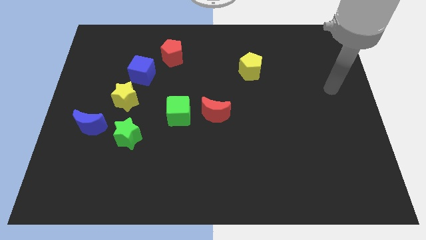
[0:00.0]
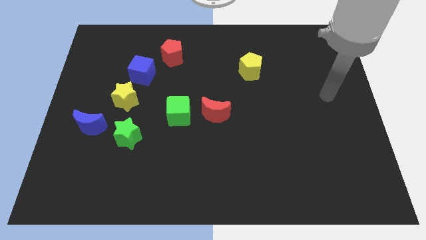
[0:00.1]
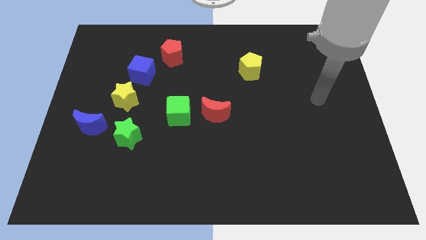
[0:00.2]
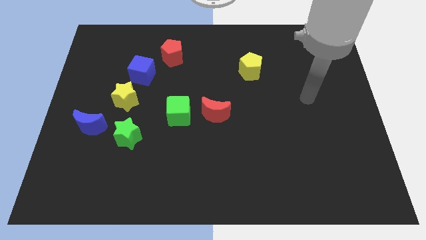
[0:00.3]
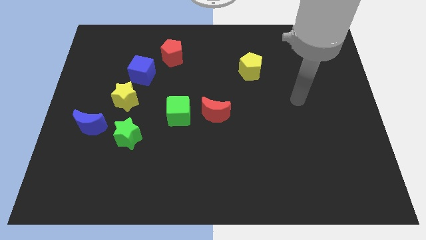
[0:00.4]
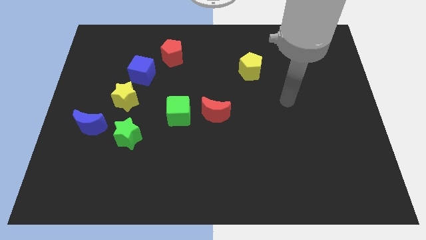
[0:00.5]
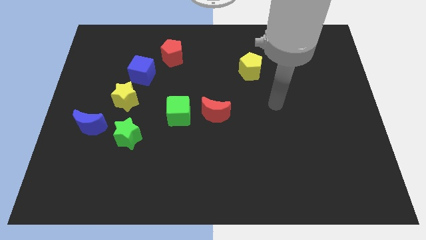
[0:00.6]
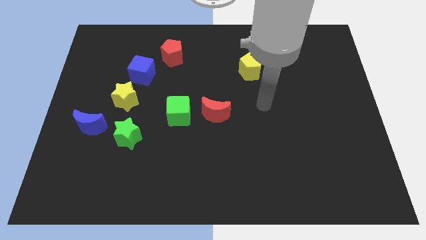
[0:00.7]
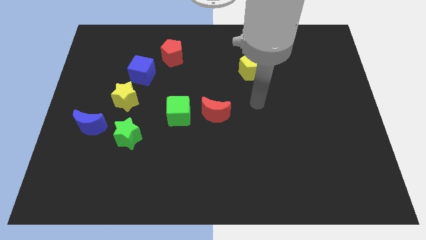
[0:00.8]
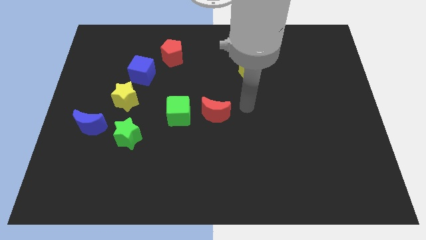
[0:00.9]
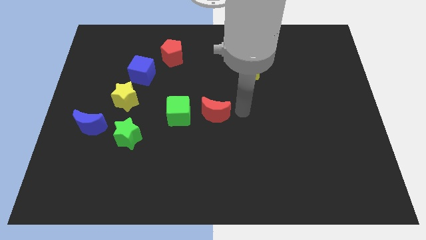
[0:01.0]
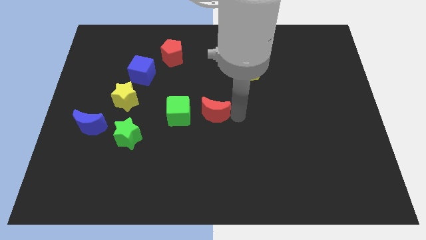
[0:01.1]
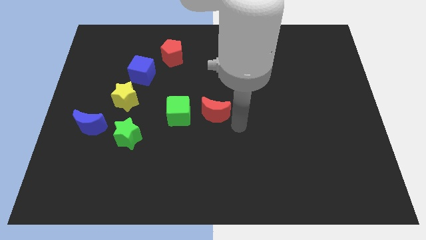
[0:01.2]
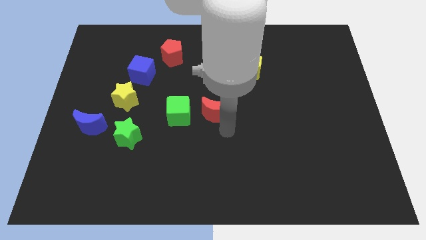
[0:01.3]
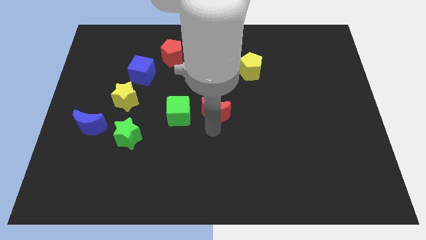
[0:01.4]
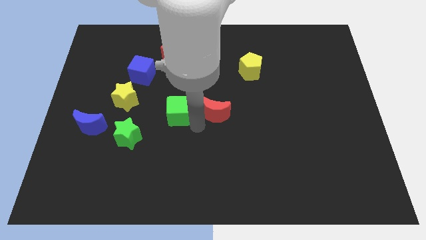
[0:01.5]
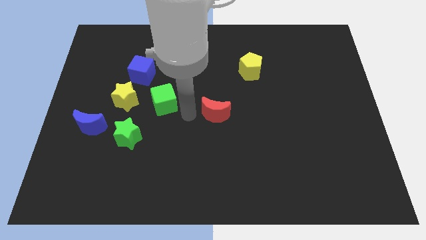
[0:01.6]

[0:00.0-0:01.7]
separate the red moon from the green cube

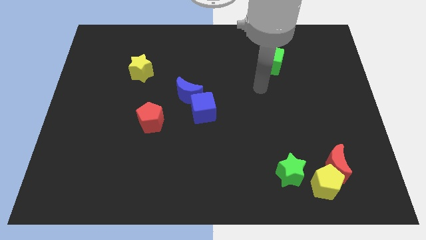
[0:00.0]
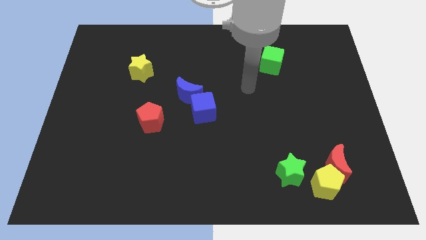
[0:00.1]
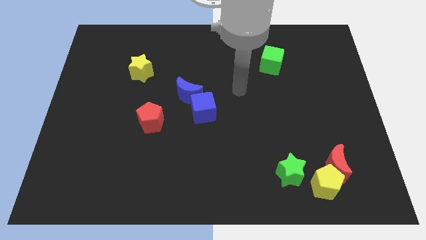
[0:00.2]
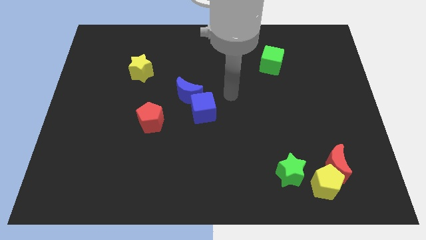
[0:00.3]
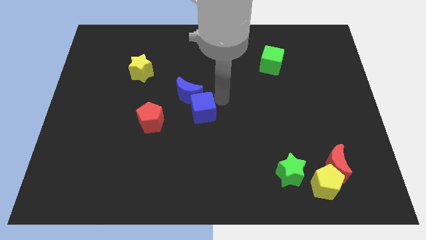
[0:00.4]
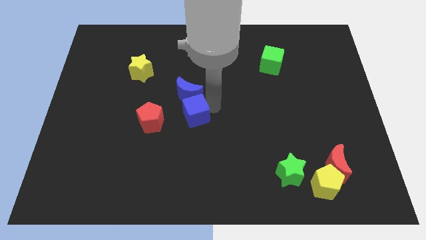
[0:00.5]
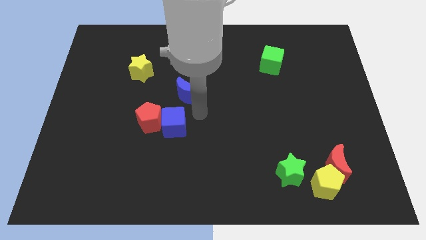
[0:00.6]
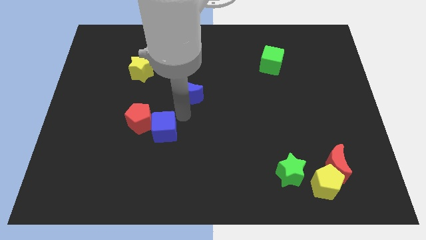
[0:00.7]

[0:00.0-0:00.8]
pull the blue moon apart from the blue cube

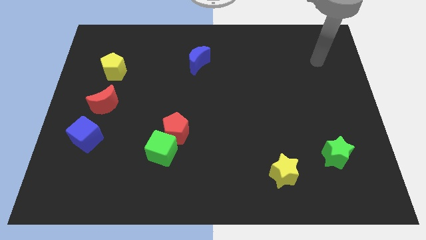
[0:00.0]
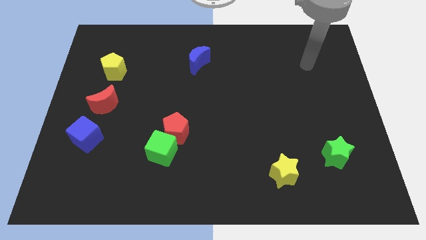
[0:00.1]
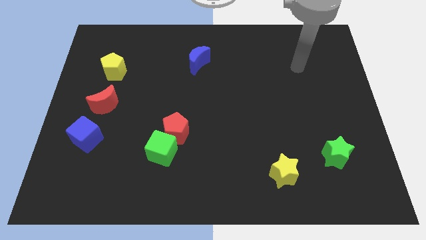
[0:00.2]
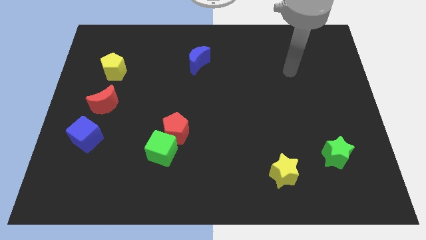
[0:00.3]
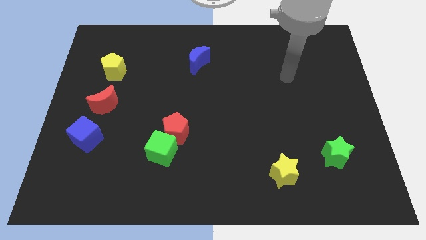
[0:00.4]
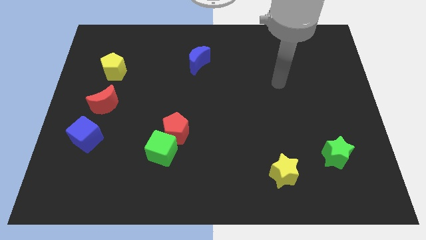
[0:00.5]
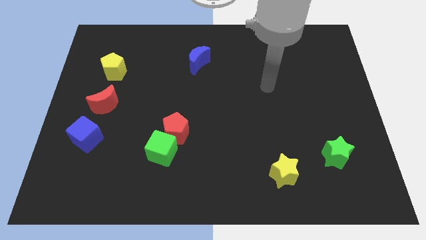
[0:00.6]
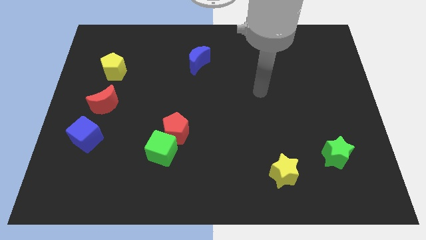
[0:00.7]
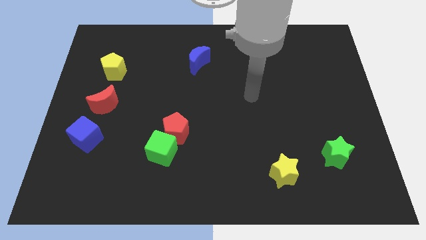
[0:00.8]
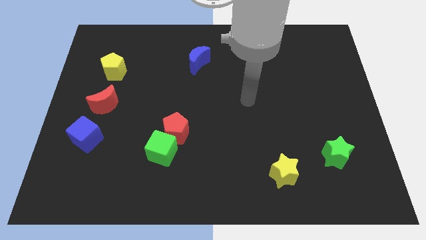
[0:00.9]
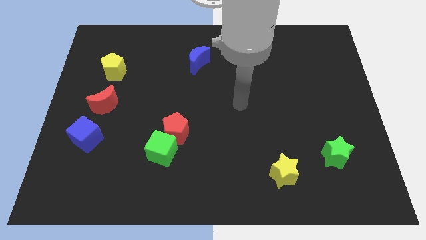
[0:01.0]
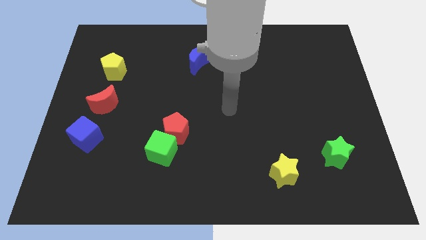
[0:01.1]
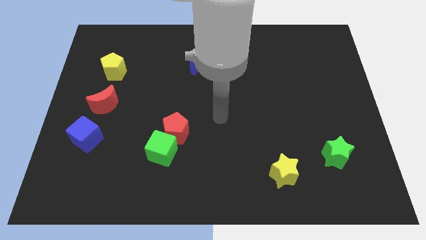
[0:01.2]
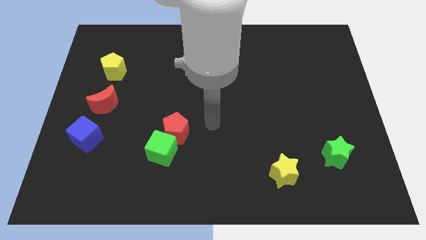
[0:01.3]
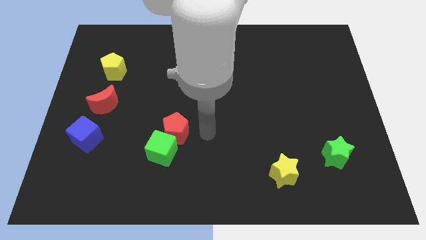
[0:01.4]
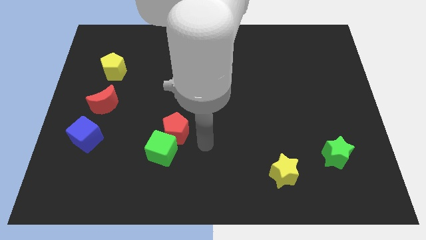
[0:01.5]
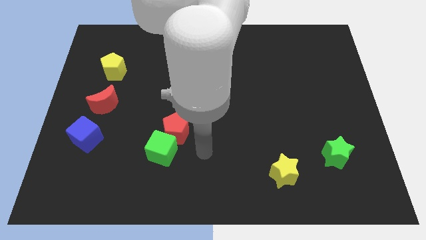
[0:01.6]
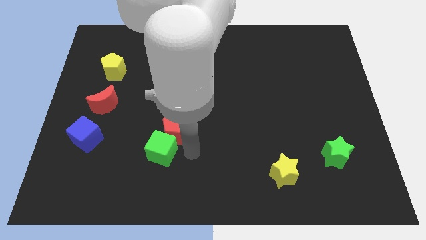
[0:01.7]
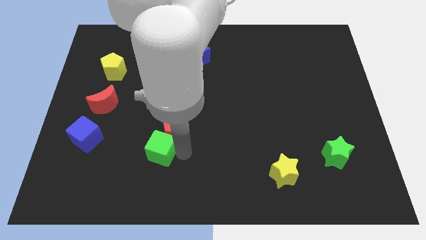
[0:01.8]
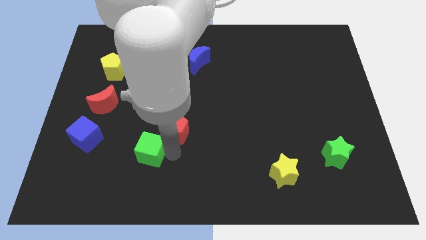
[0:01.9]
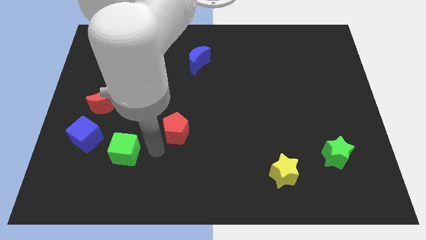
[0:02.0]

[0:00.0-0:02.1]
move the red pentagon away from the green cube

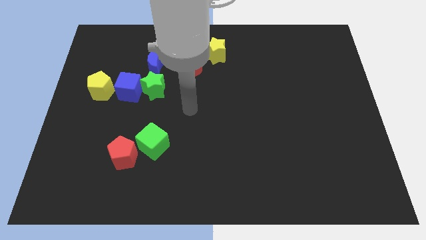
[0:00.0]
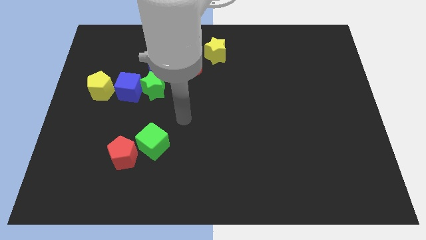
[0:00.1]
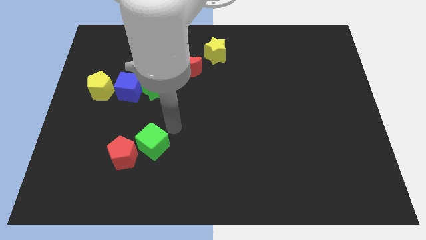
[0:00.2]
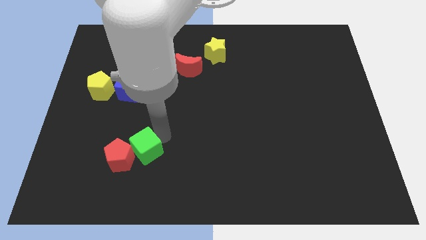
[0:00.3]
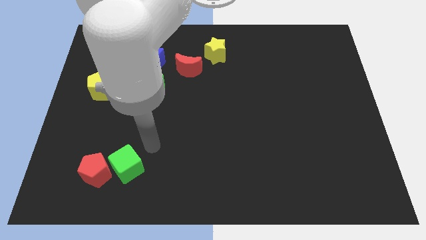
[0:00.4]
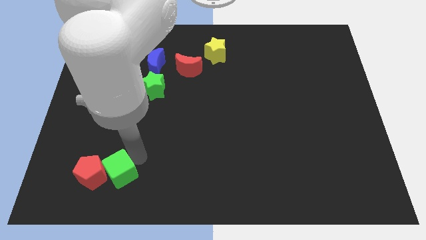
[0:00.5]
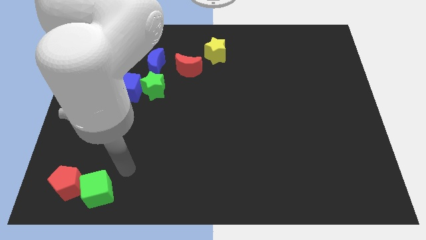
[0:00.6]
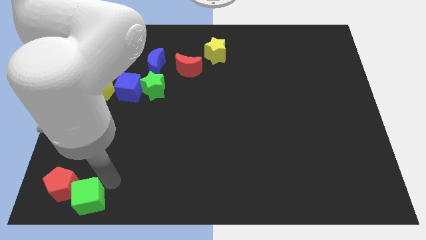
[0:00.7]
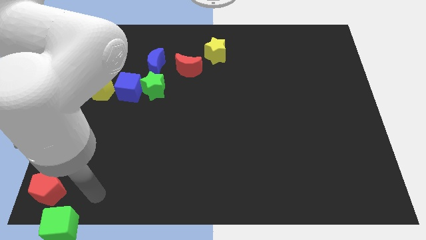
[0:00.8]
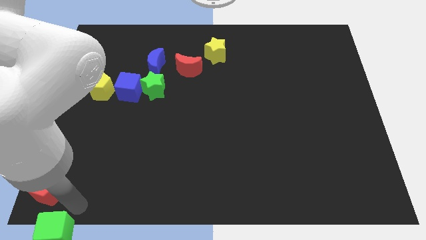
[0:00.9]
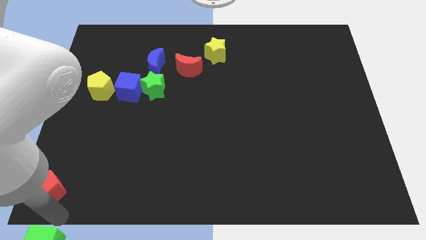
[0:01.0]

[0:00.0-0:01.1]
separate the red pentagon from the green cube

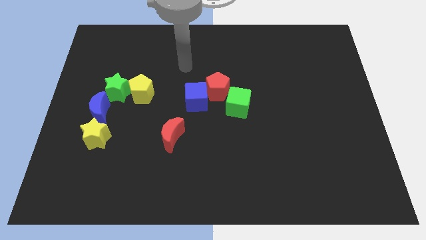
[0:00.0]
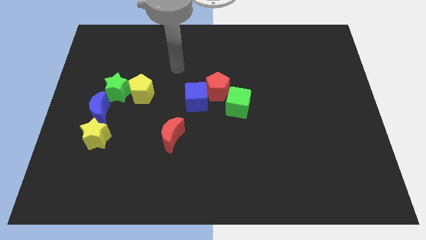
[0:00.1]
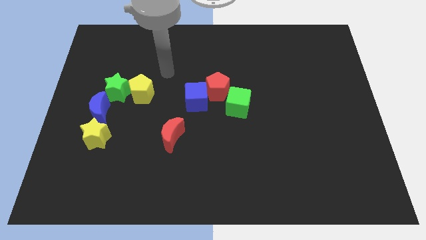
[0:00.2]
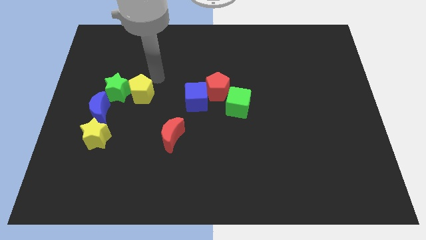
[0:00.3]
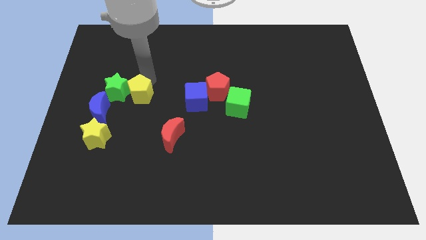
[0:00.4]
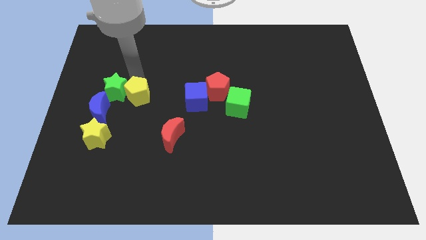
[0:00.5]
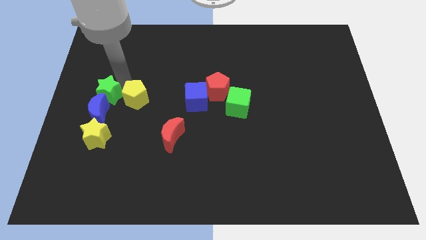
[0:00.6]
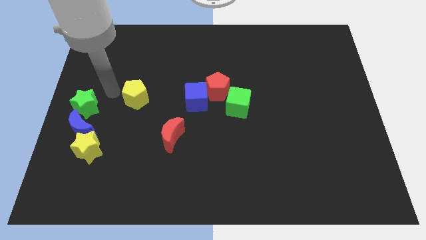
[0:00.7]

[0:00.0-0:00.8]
move the yellow pentagon away from the green star

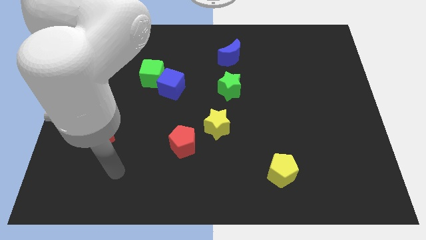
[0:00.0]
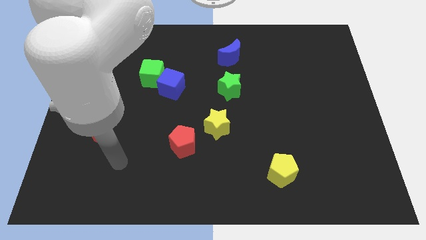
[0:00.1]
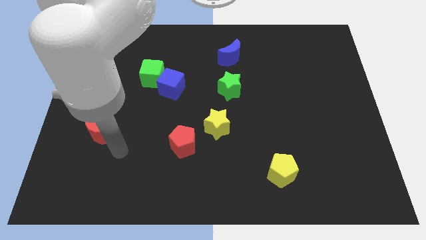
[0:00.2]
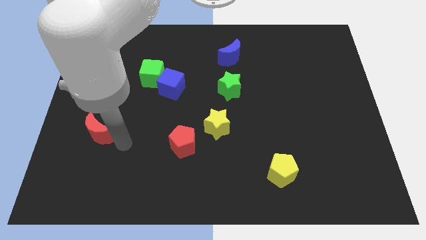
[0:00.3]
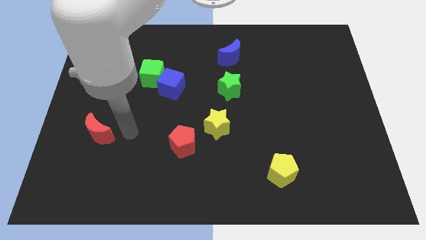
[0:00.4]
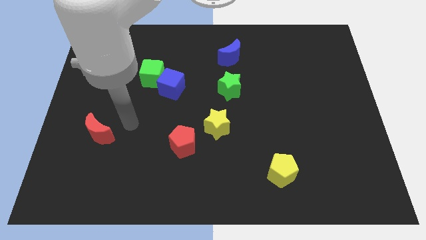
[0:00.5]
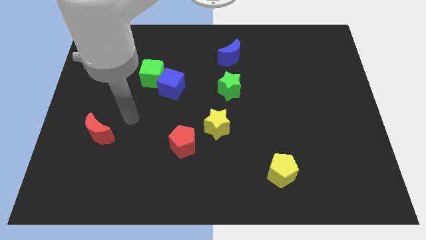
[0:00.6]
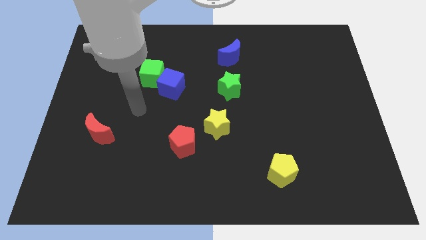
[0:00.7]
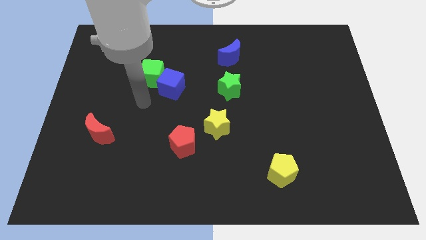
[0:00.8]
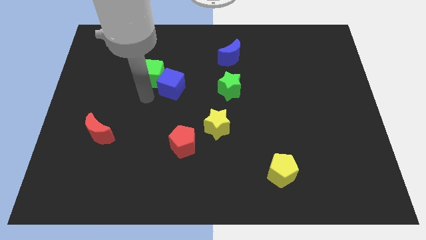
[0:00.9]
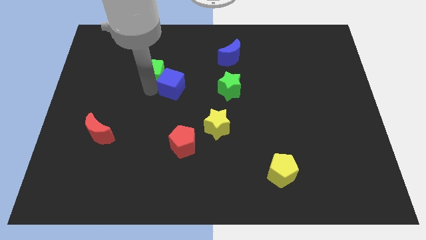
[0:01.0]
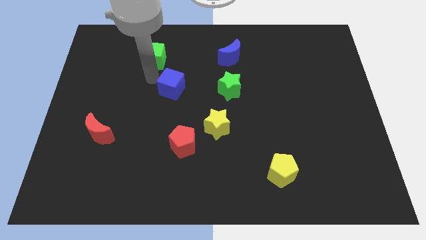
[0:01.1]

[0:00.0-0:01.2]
separate the blue cube from the green cube

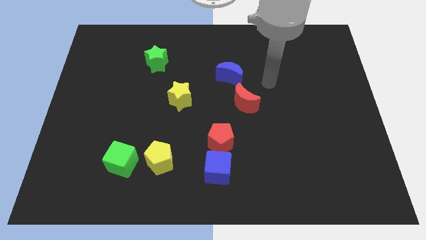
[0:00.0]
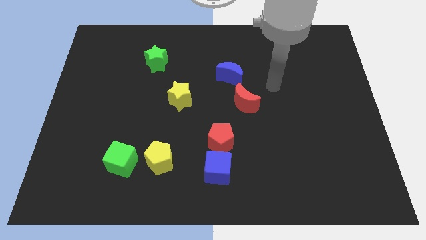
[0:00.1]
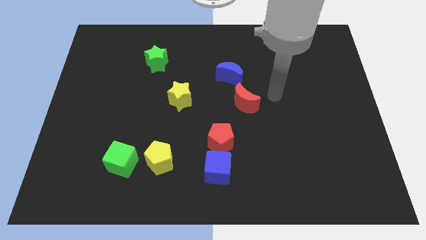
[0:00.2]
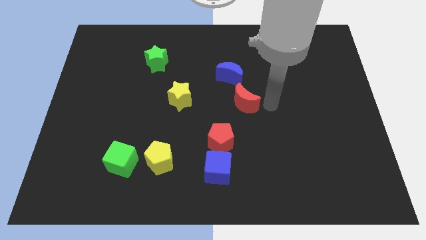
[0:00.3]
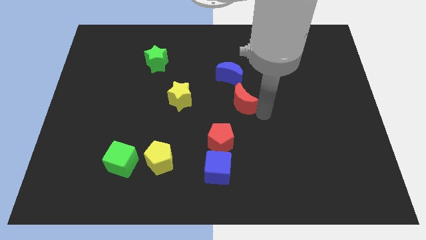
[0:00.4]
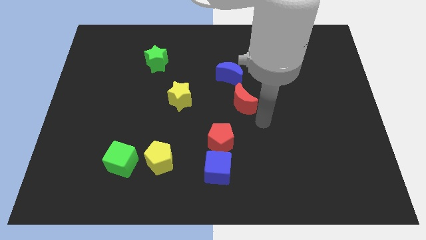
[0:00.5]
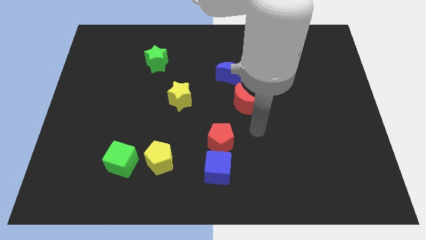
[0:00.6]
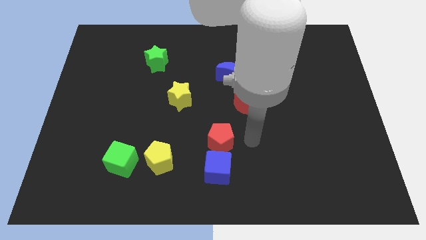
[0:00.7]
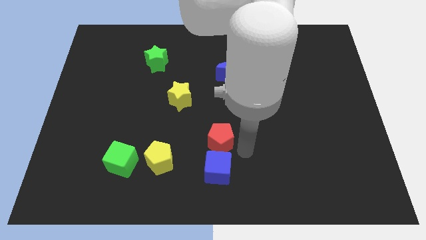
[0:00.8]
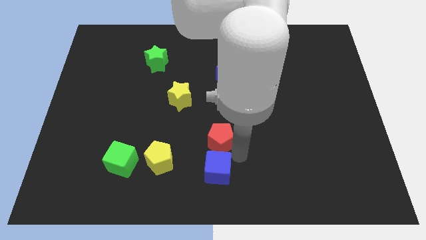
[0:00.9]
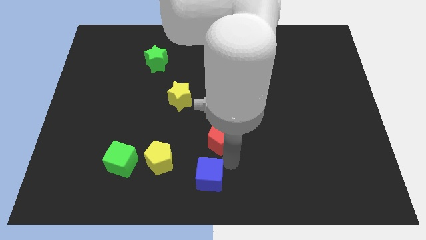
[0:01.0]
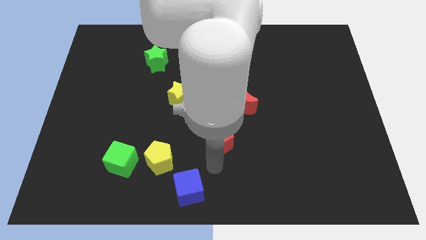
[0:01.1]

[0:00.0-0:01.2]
move the red pentagon away from the blue cube

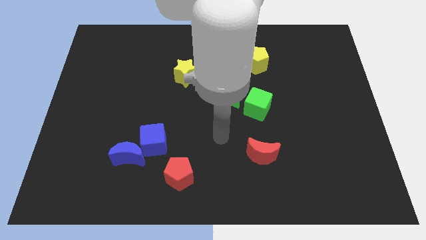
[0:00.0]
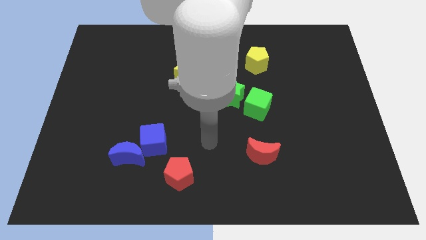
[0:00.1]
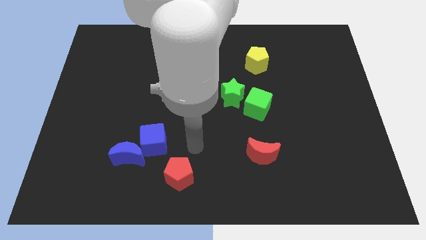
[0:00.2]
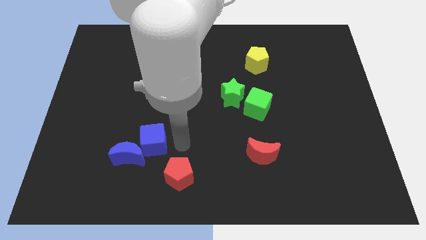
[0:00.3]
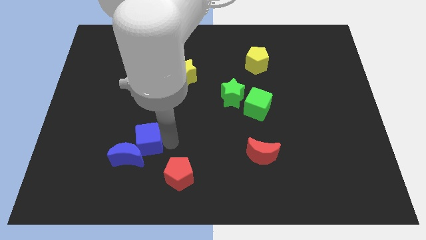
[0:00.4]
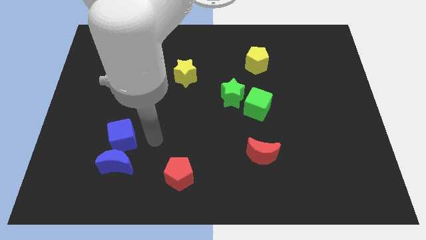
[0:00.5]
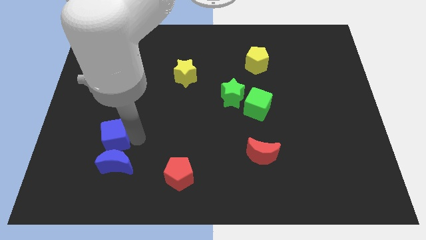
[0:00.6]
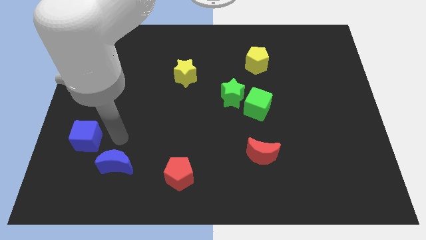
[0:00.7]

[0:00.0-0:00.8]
separate the blue moon from the blue cube
